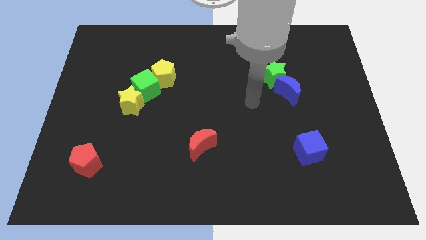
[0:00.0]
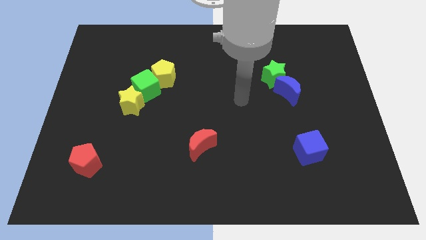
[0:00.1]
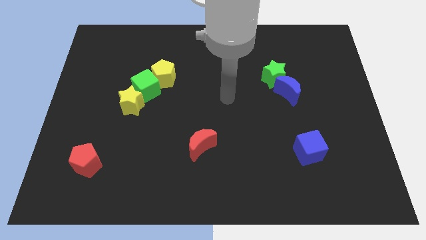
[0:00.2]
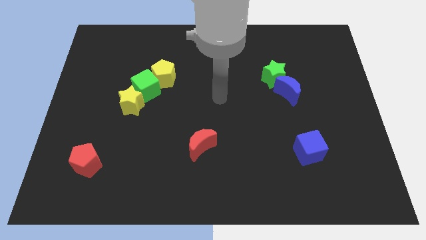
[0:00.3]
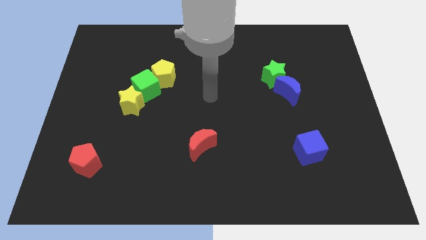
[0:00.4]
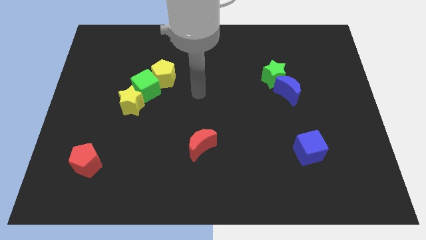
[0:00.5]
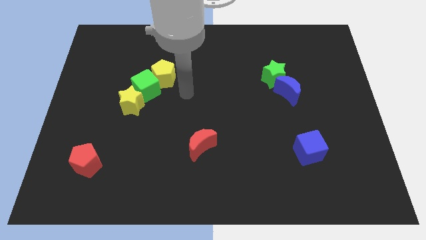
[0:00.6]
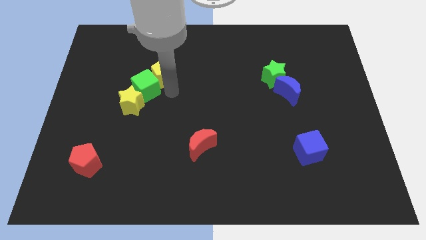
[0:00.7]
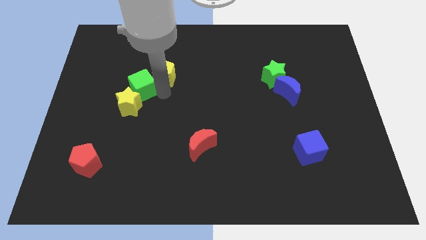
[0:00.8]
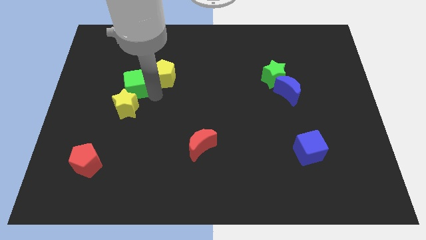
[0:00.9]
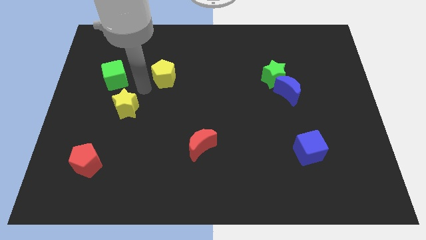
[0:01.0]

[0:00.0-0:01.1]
separate the yellow pentagon from the green cube

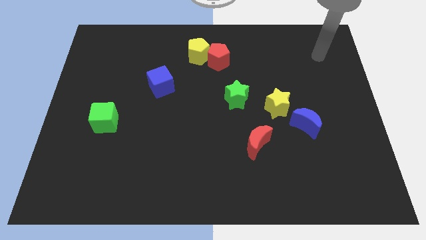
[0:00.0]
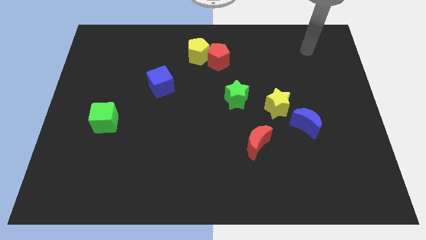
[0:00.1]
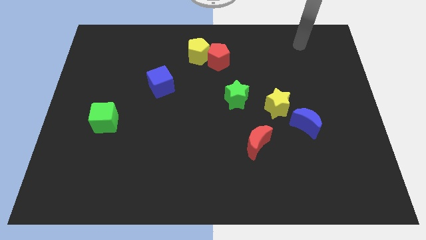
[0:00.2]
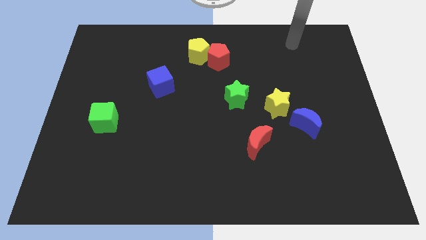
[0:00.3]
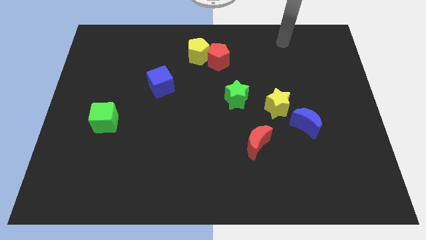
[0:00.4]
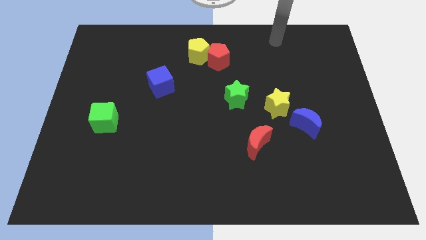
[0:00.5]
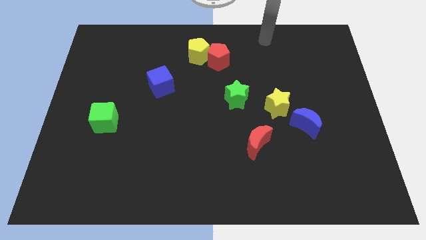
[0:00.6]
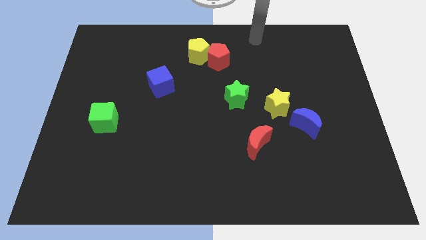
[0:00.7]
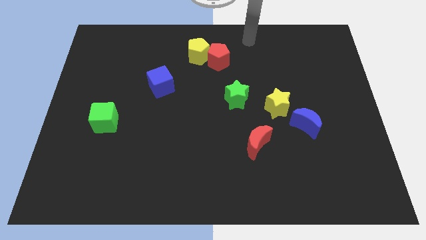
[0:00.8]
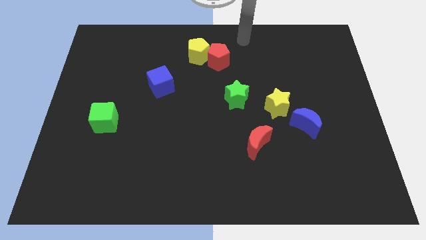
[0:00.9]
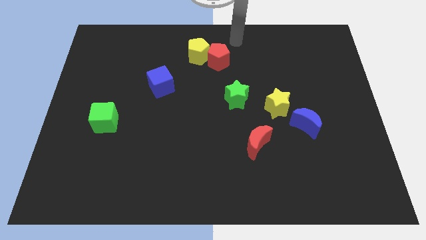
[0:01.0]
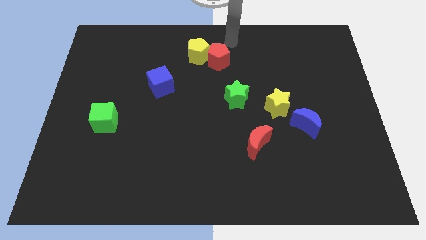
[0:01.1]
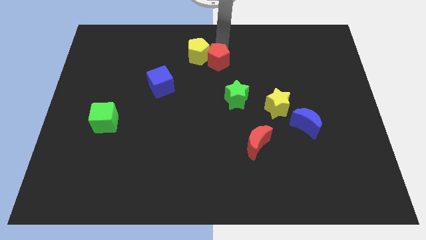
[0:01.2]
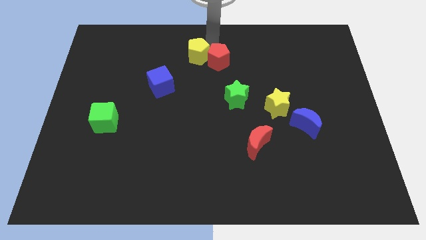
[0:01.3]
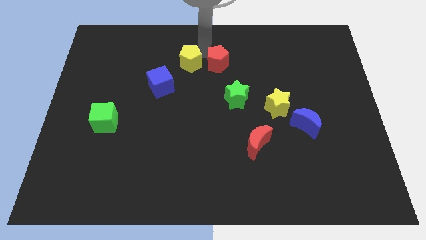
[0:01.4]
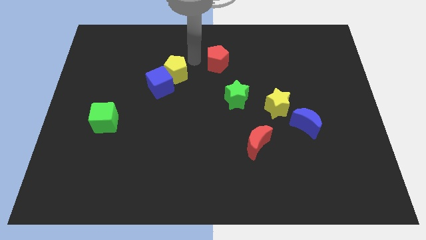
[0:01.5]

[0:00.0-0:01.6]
pull the red pentagon apart from the yellow pentagon

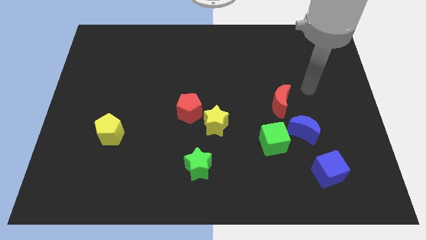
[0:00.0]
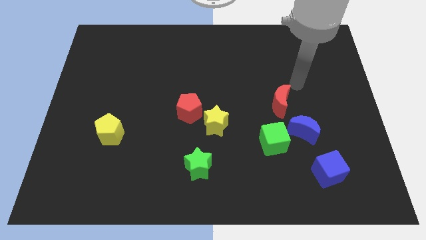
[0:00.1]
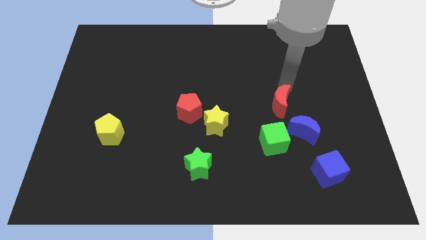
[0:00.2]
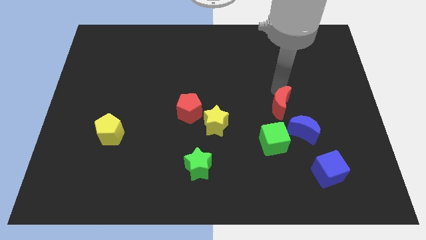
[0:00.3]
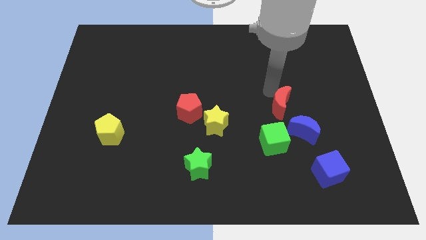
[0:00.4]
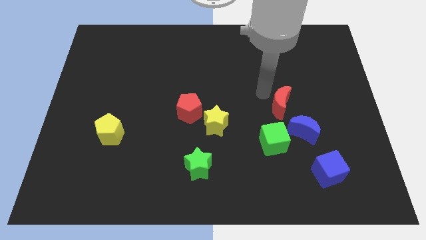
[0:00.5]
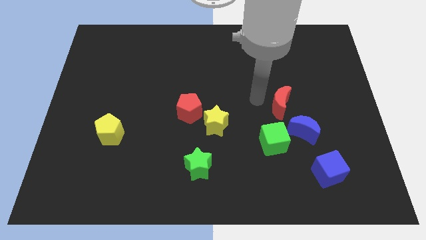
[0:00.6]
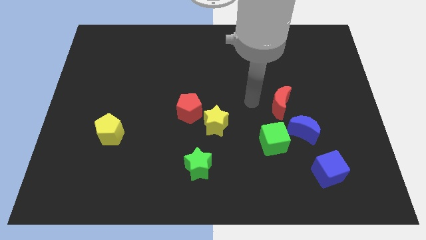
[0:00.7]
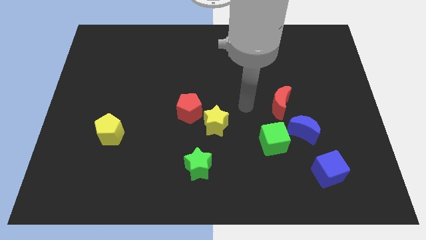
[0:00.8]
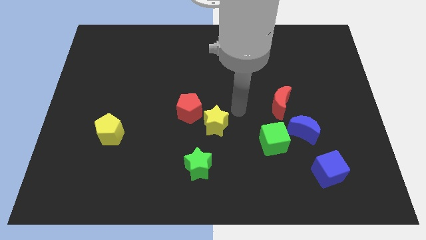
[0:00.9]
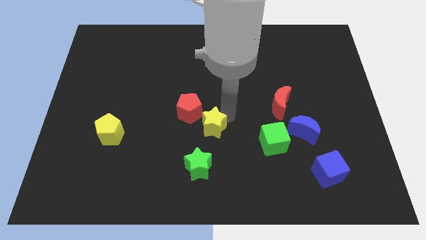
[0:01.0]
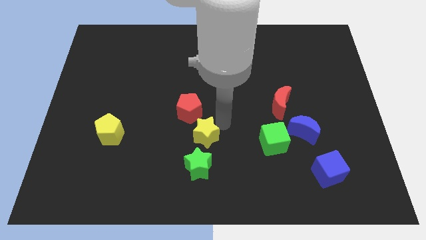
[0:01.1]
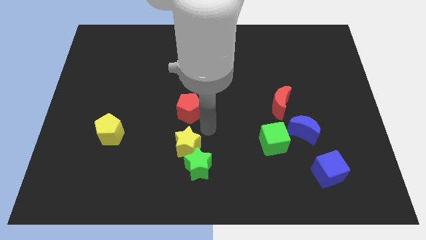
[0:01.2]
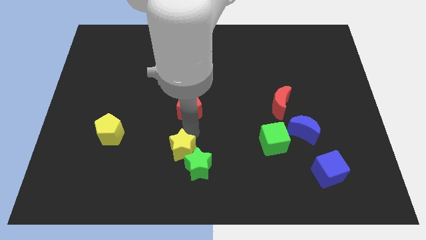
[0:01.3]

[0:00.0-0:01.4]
separate the red pentagon from the yellow star

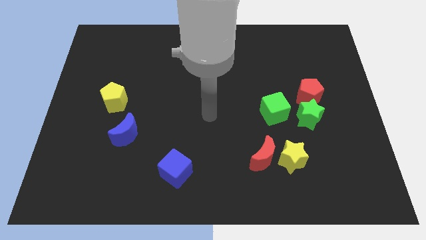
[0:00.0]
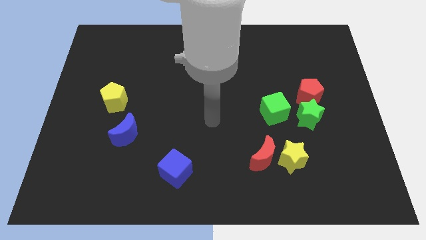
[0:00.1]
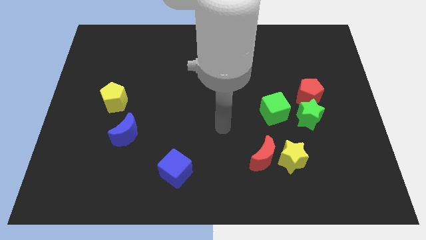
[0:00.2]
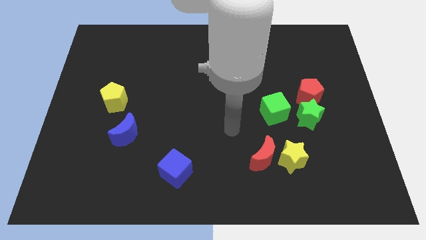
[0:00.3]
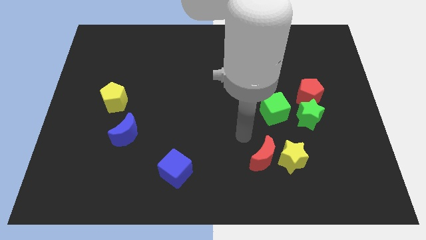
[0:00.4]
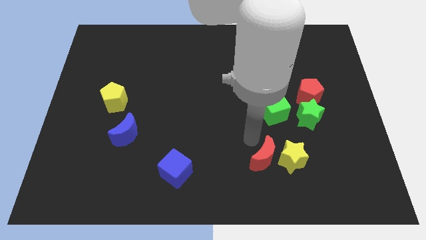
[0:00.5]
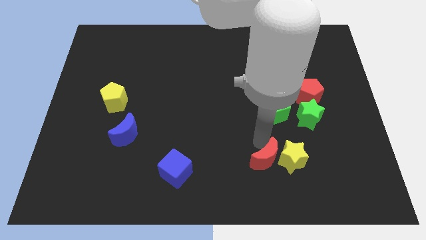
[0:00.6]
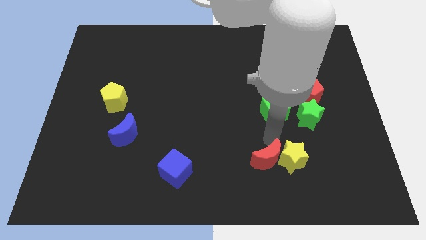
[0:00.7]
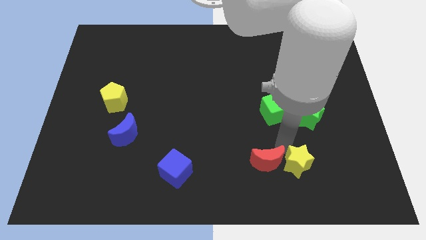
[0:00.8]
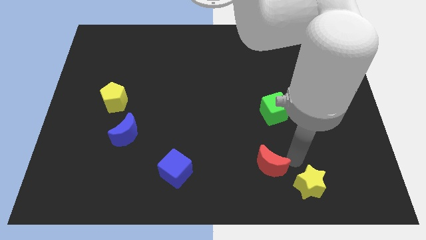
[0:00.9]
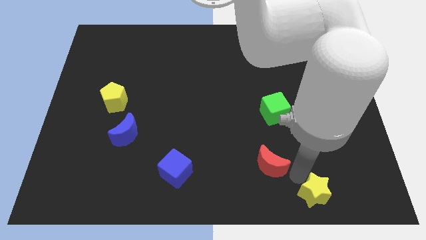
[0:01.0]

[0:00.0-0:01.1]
separate the red moon from the yellow star

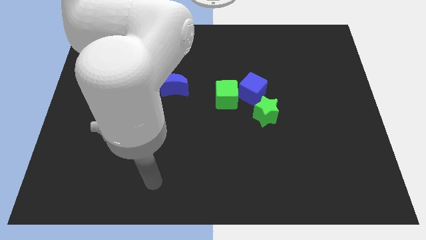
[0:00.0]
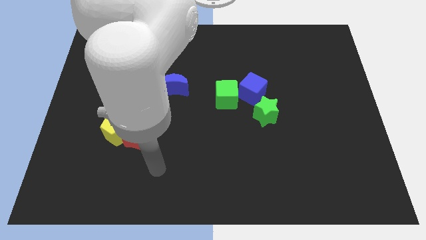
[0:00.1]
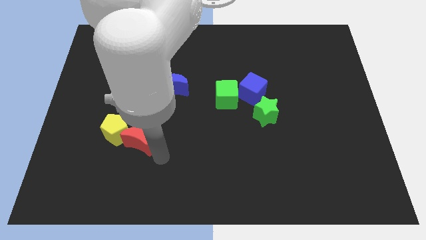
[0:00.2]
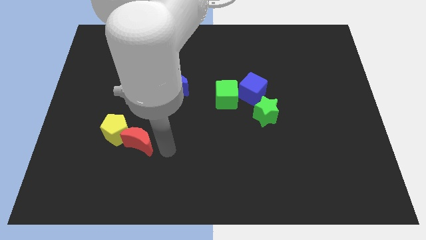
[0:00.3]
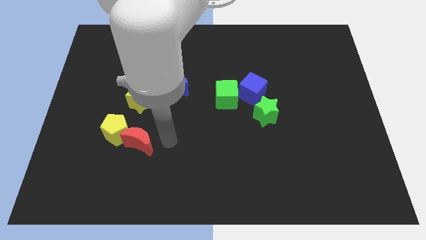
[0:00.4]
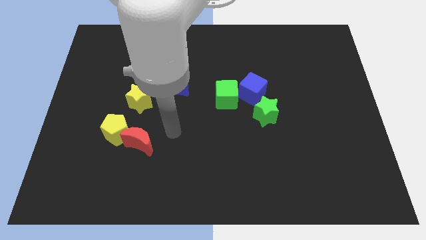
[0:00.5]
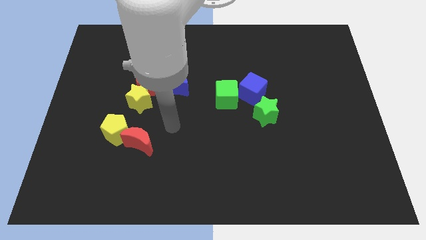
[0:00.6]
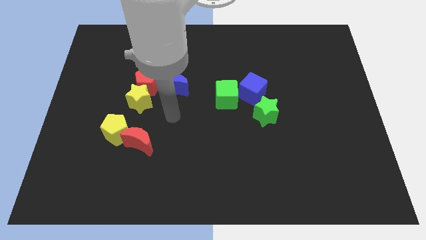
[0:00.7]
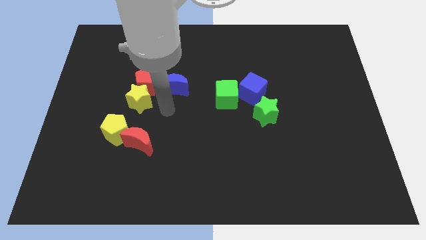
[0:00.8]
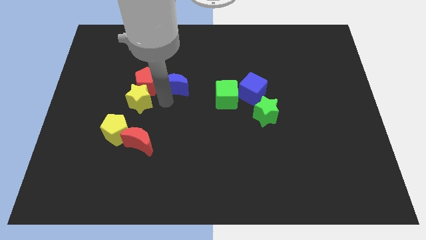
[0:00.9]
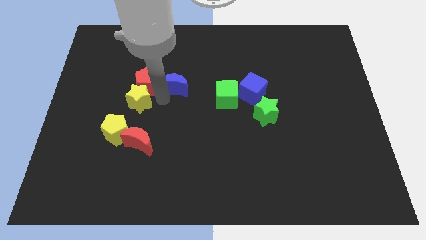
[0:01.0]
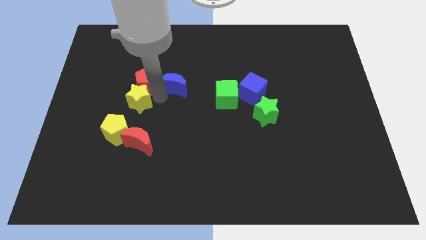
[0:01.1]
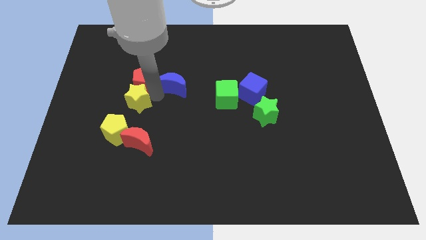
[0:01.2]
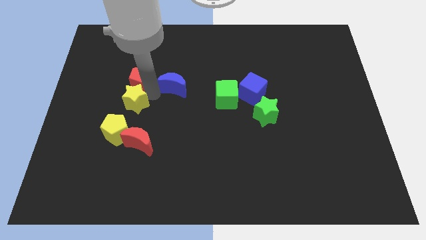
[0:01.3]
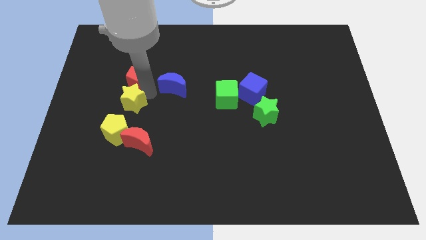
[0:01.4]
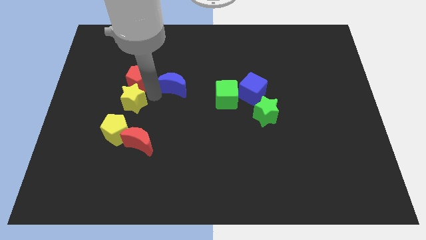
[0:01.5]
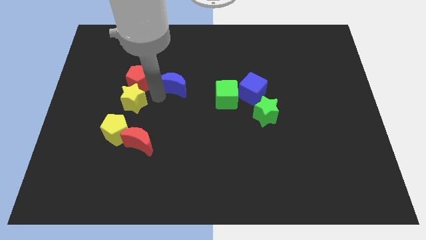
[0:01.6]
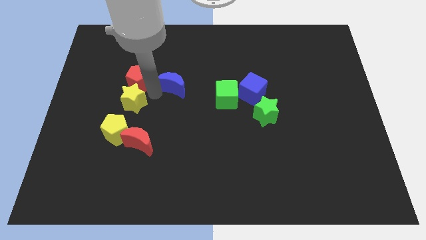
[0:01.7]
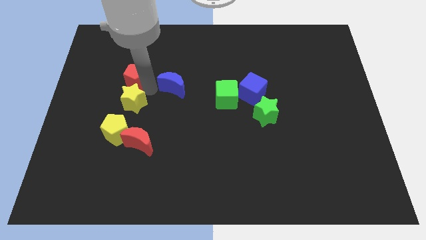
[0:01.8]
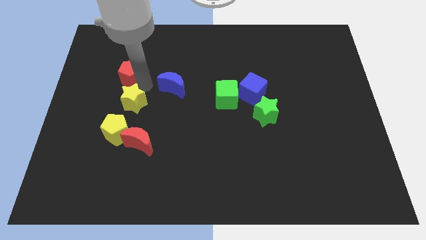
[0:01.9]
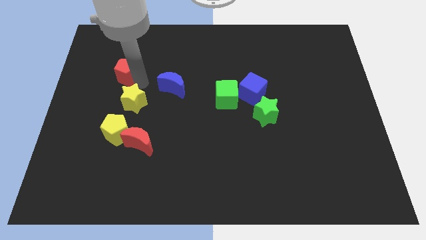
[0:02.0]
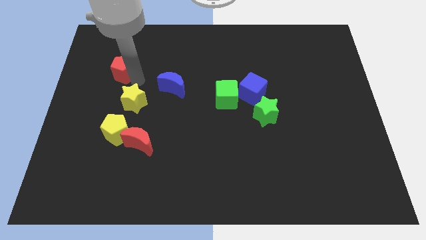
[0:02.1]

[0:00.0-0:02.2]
pull the red pentagon apart from the yellow star and blue moon

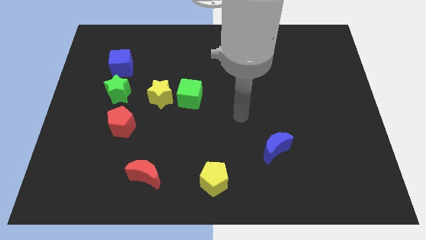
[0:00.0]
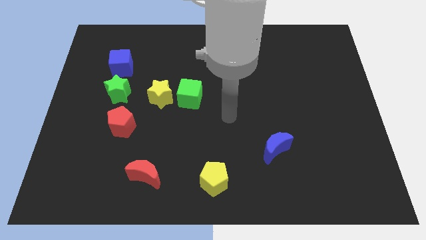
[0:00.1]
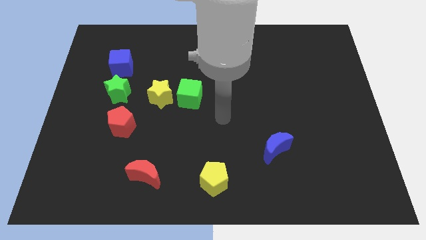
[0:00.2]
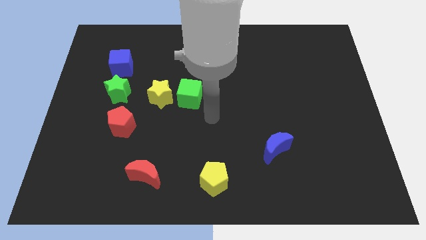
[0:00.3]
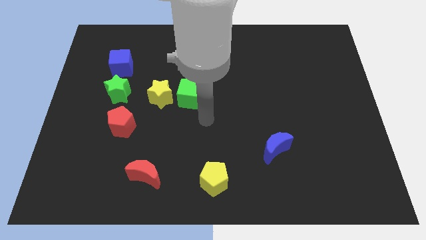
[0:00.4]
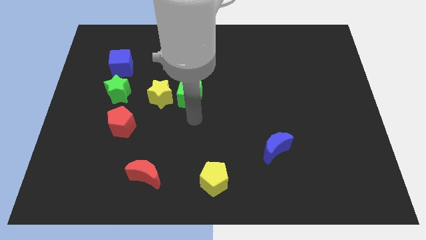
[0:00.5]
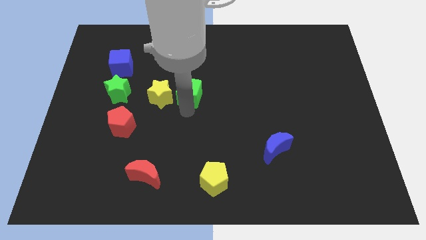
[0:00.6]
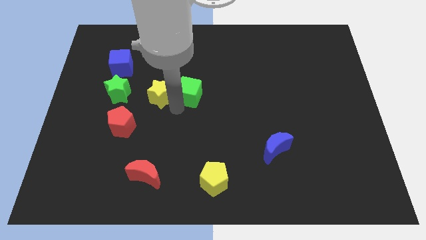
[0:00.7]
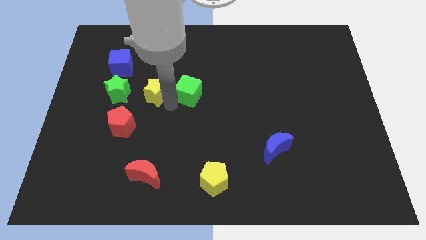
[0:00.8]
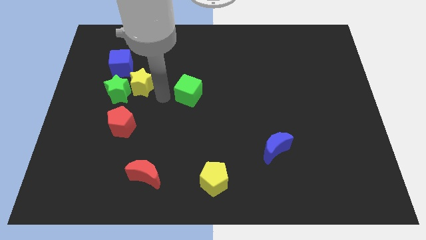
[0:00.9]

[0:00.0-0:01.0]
separate the green cube from the yellow star

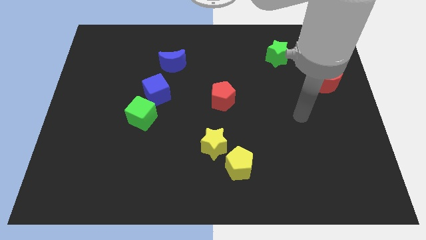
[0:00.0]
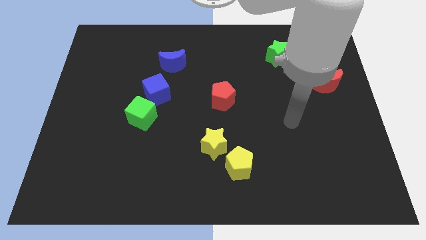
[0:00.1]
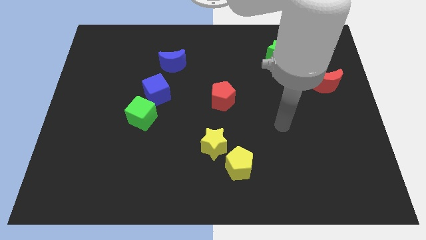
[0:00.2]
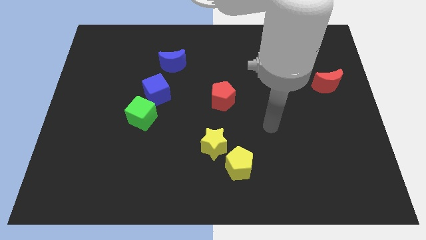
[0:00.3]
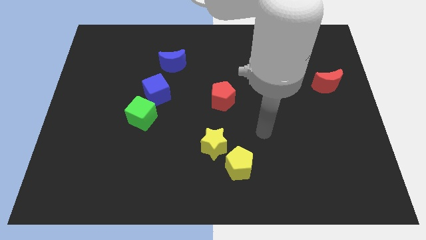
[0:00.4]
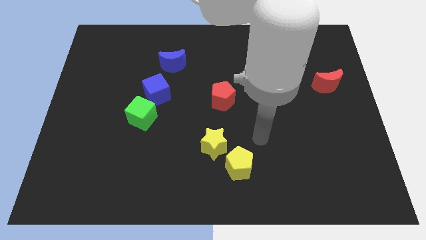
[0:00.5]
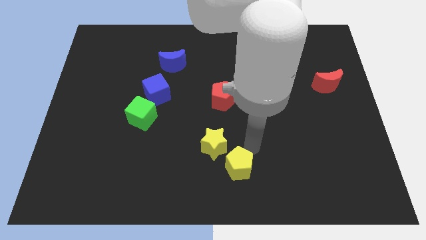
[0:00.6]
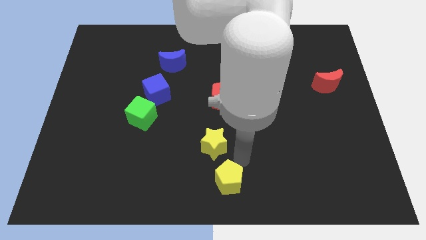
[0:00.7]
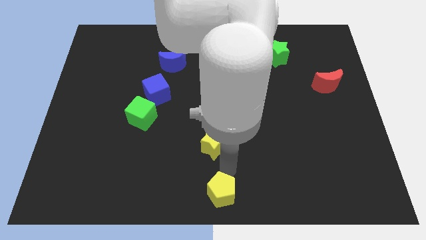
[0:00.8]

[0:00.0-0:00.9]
pull the yellow star apart from the yellow pentagon
